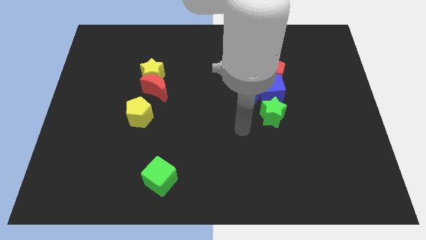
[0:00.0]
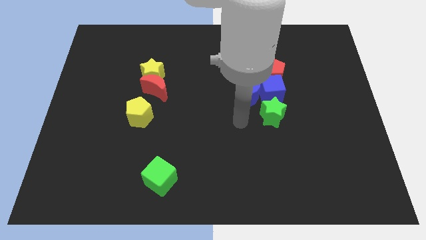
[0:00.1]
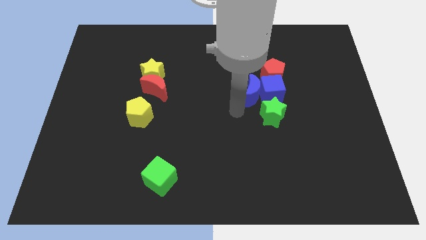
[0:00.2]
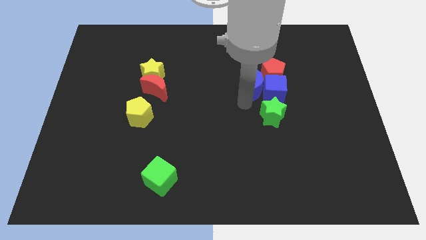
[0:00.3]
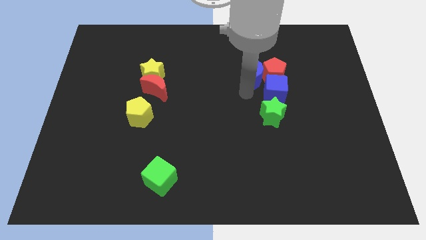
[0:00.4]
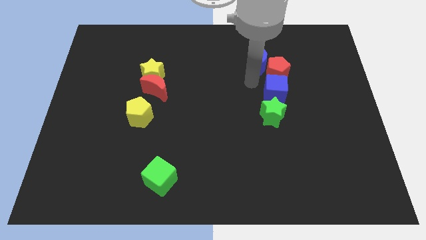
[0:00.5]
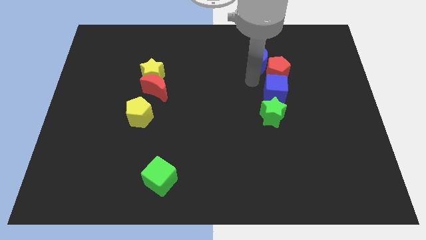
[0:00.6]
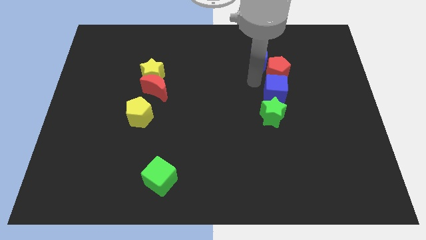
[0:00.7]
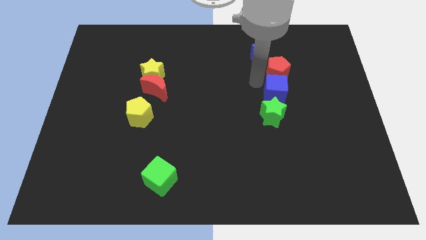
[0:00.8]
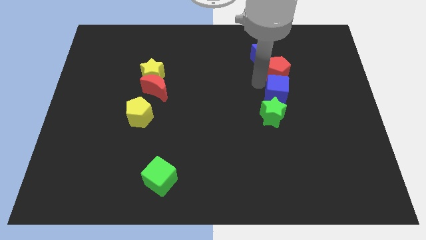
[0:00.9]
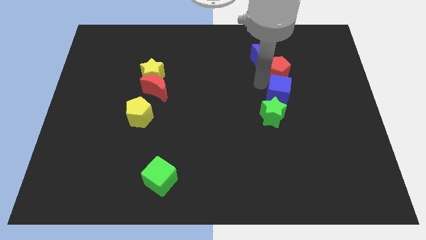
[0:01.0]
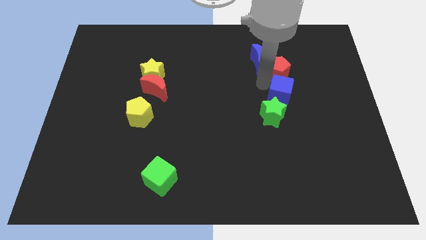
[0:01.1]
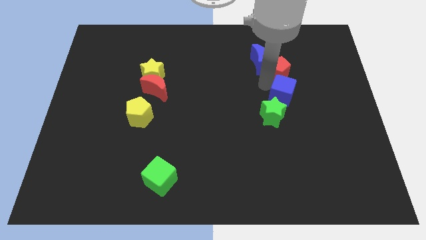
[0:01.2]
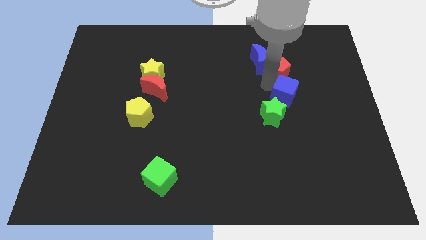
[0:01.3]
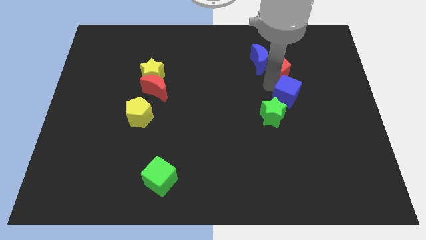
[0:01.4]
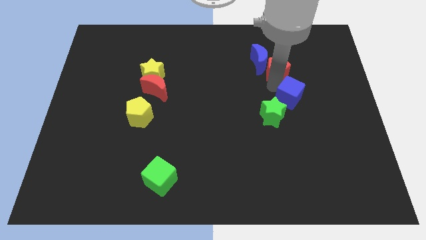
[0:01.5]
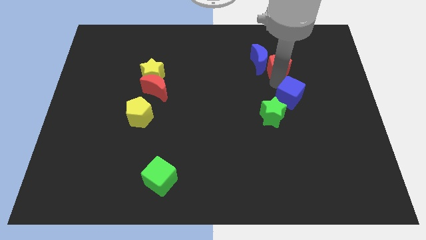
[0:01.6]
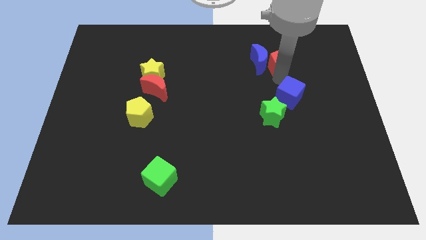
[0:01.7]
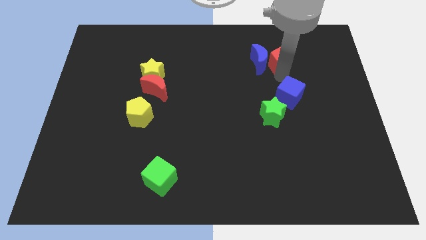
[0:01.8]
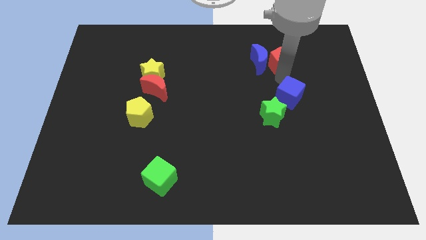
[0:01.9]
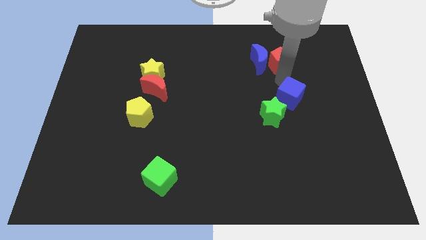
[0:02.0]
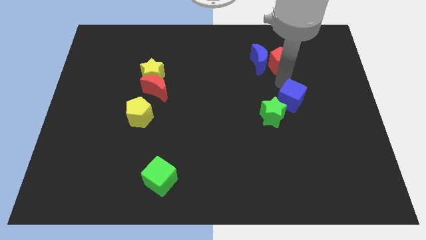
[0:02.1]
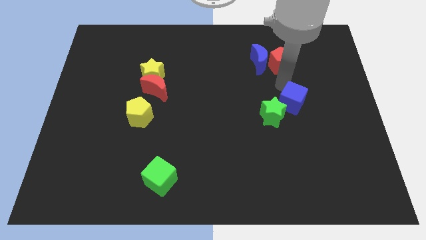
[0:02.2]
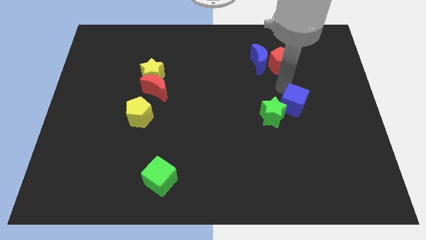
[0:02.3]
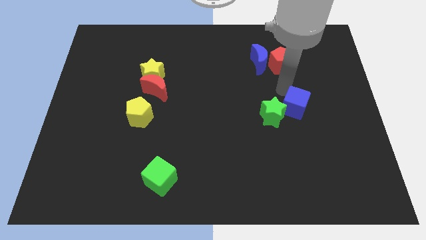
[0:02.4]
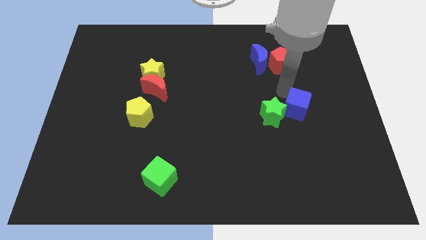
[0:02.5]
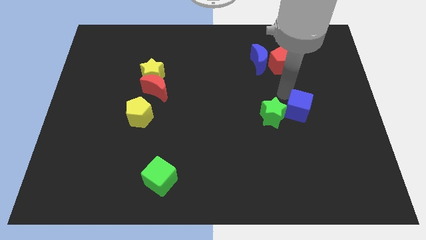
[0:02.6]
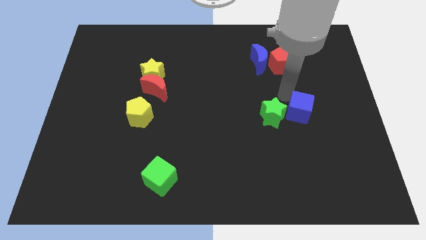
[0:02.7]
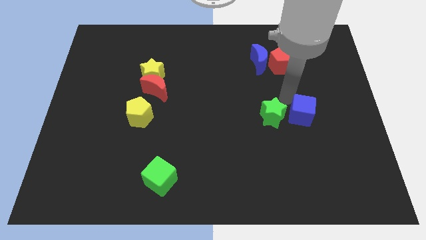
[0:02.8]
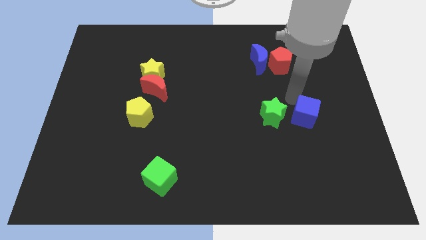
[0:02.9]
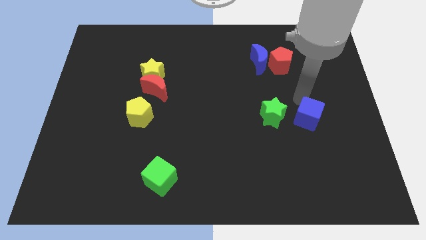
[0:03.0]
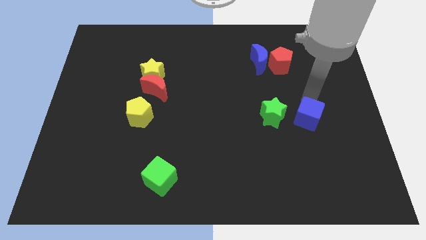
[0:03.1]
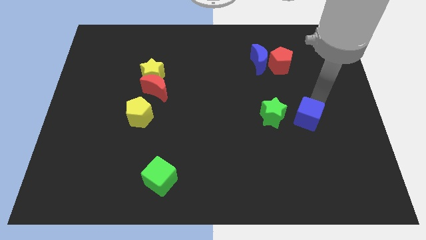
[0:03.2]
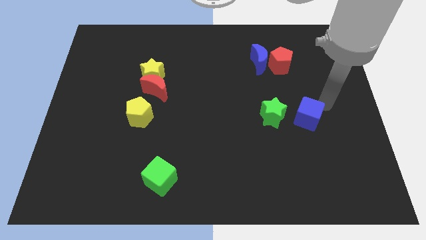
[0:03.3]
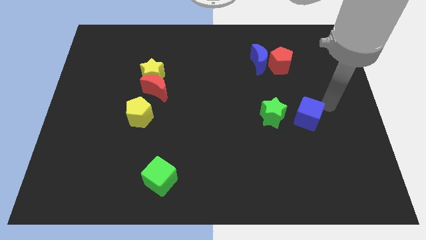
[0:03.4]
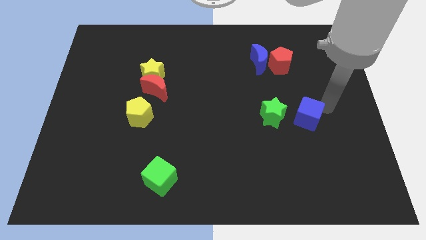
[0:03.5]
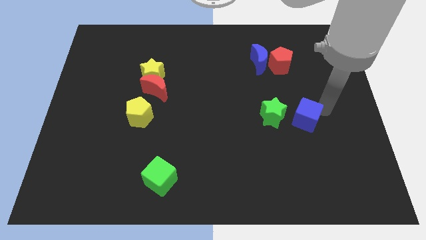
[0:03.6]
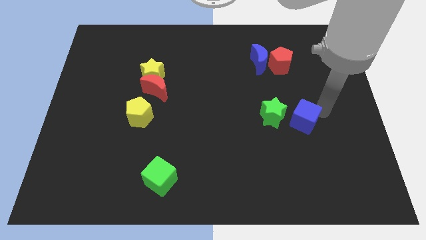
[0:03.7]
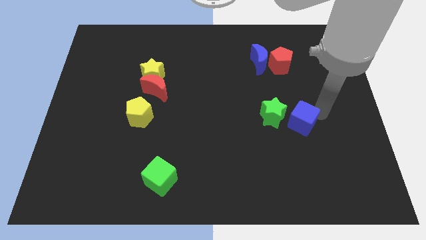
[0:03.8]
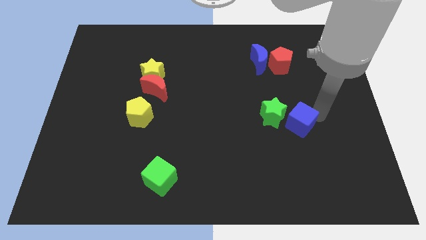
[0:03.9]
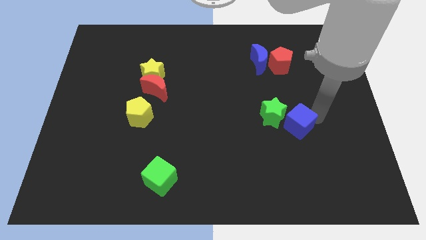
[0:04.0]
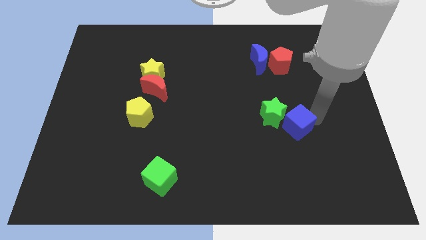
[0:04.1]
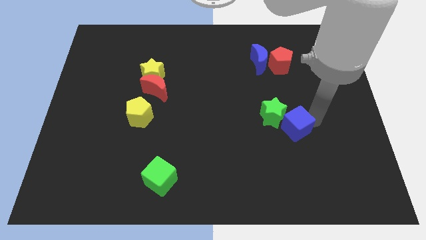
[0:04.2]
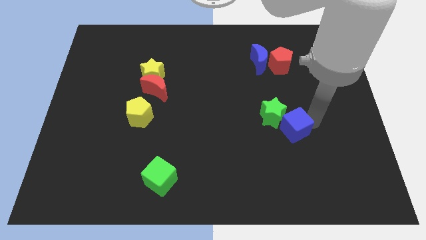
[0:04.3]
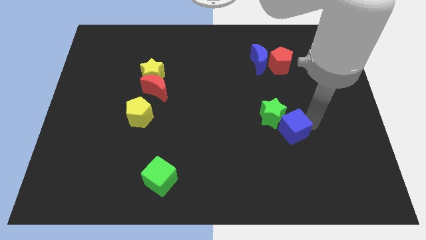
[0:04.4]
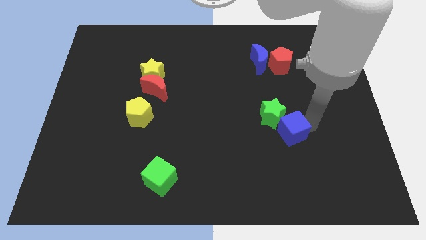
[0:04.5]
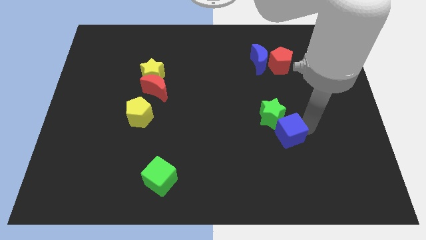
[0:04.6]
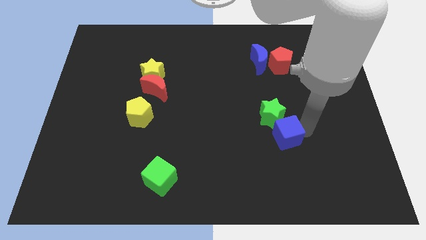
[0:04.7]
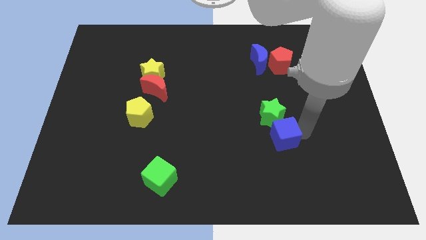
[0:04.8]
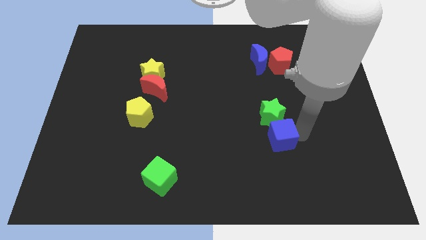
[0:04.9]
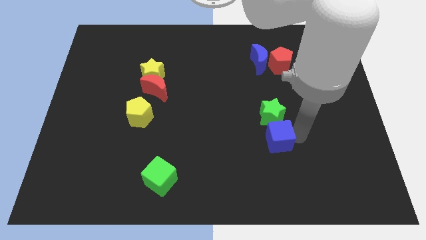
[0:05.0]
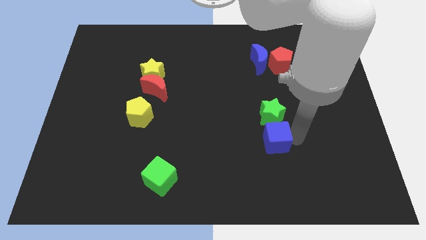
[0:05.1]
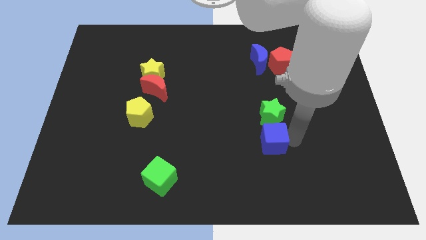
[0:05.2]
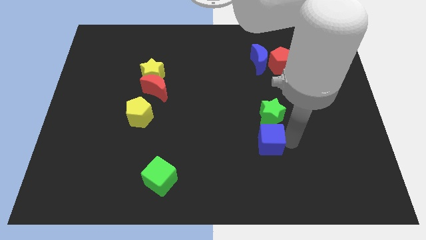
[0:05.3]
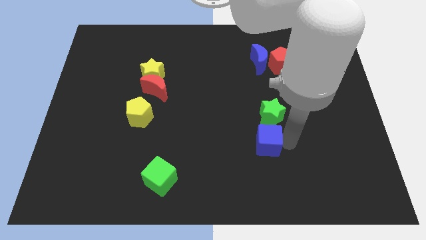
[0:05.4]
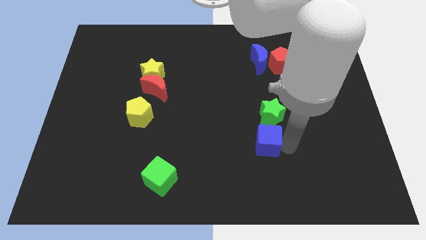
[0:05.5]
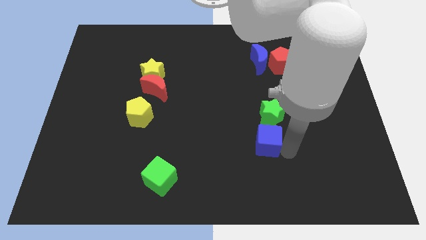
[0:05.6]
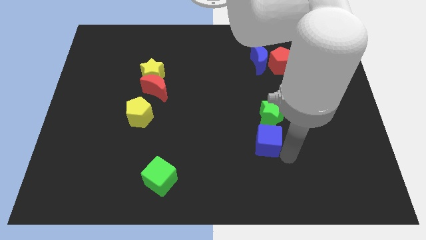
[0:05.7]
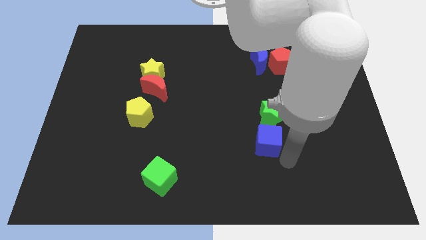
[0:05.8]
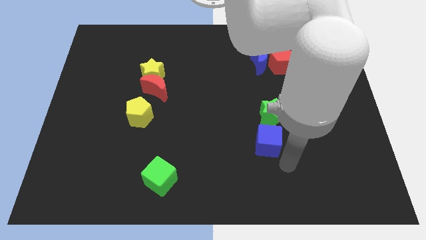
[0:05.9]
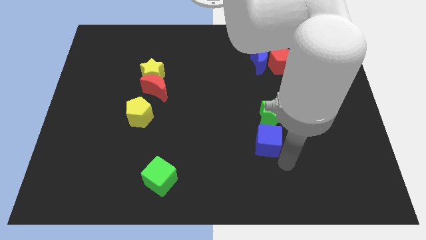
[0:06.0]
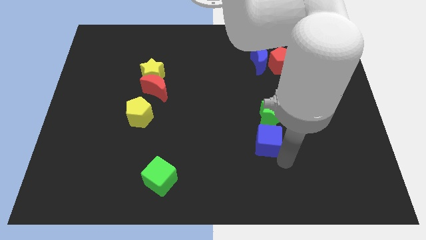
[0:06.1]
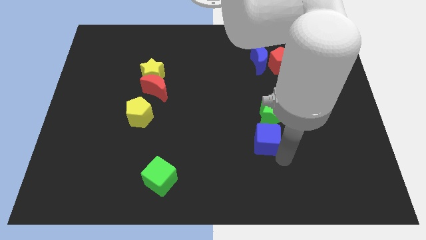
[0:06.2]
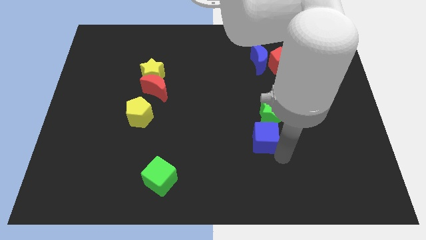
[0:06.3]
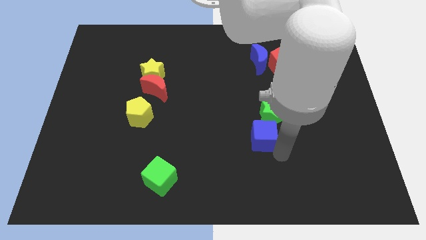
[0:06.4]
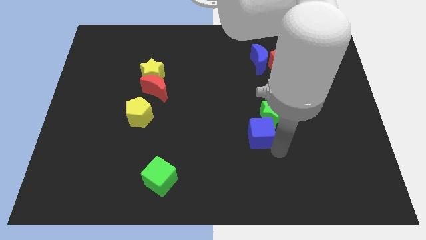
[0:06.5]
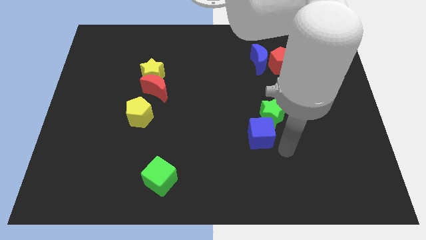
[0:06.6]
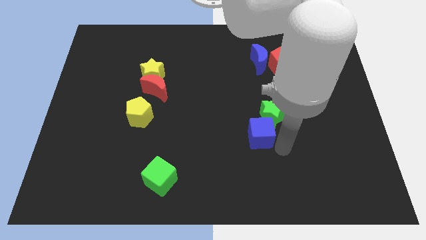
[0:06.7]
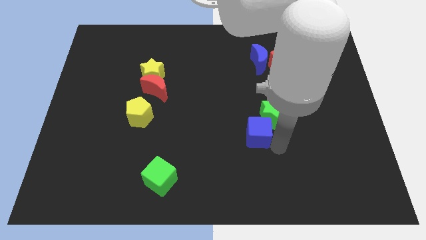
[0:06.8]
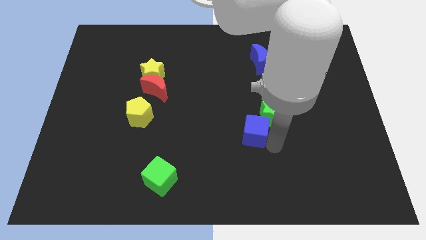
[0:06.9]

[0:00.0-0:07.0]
push the blue cube just left of the green star

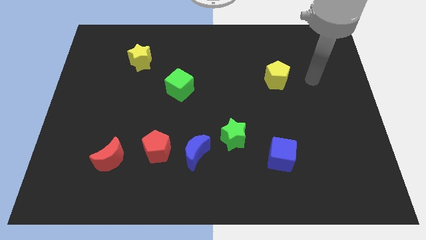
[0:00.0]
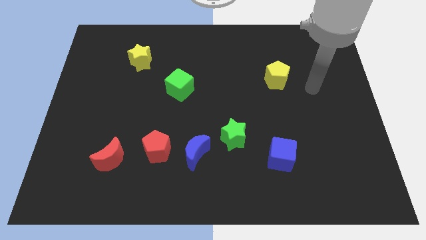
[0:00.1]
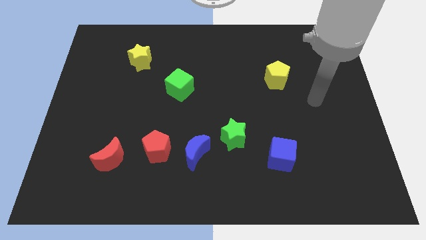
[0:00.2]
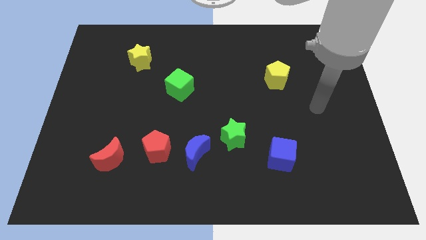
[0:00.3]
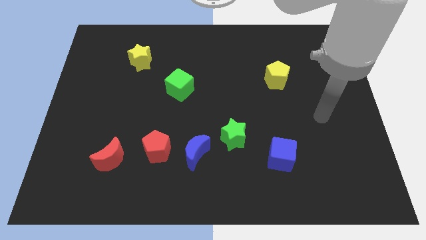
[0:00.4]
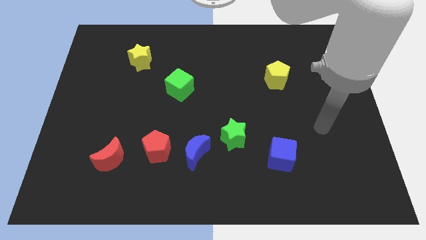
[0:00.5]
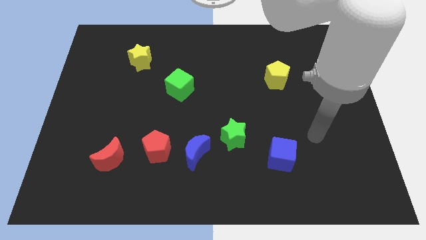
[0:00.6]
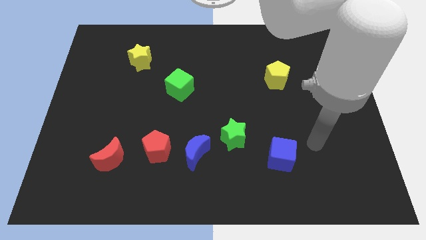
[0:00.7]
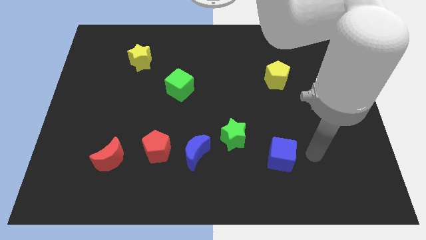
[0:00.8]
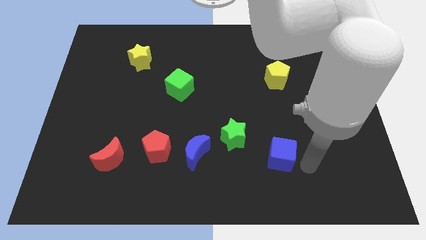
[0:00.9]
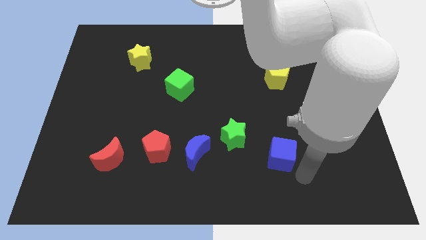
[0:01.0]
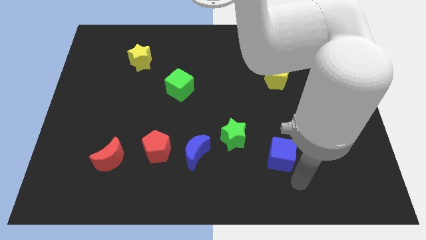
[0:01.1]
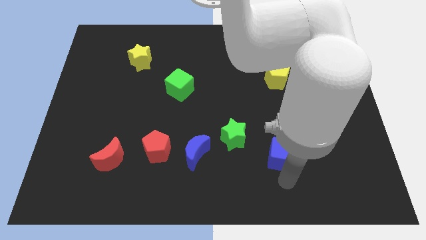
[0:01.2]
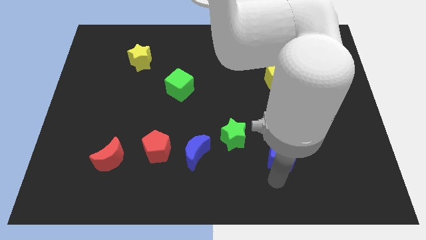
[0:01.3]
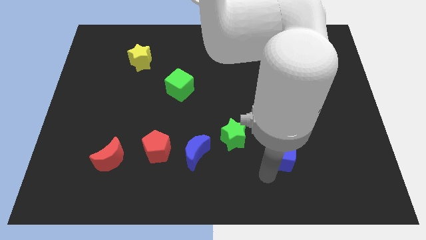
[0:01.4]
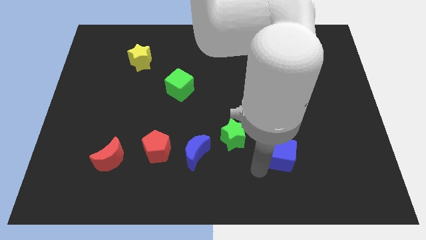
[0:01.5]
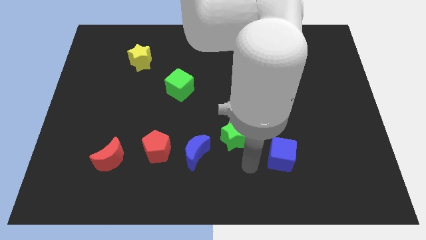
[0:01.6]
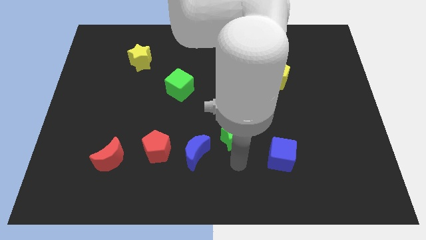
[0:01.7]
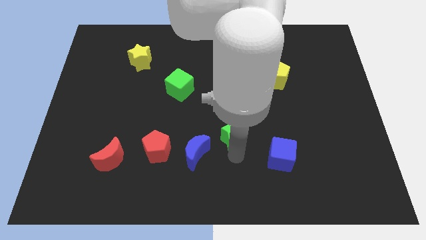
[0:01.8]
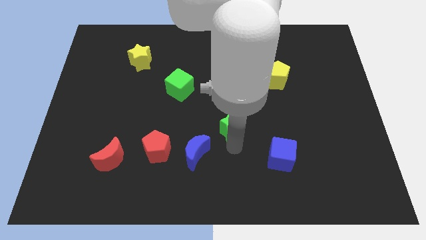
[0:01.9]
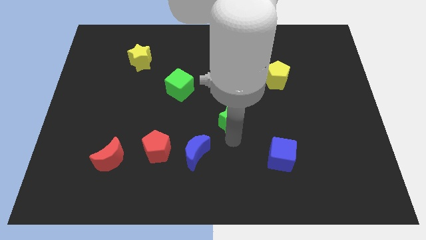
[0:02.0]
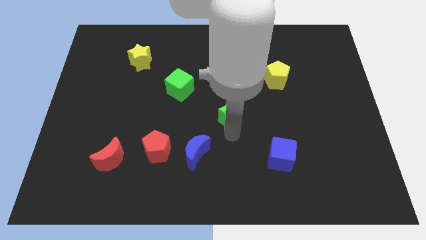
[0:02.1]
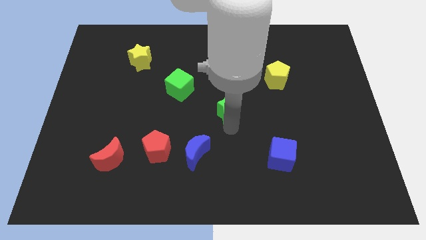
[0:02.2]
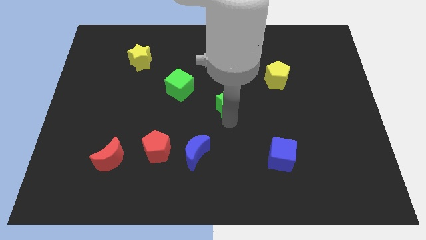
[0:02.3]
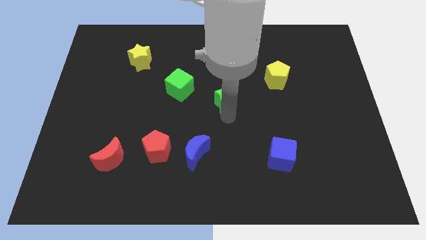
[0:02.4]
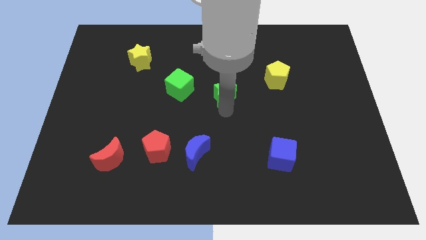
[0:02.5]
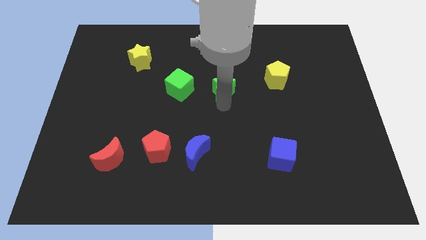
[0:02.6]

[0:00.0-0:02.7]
push the green star to the left side of the yellow pentagon
